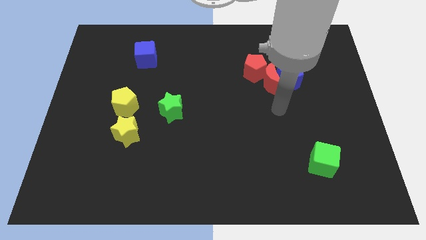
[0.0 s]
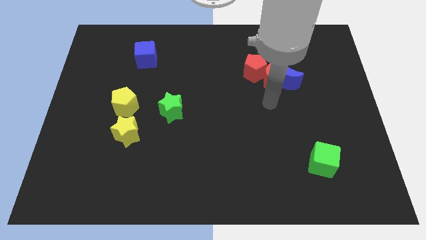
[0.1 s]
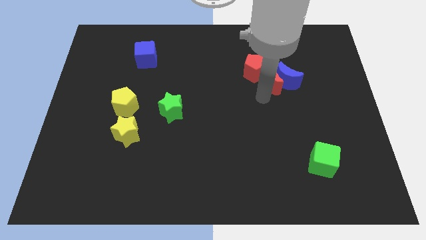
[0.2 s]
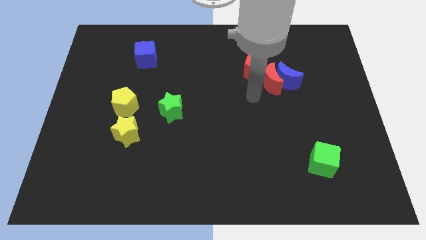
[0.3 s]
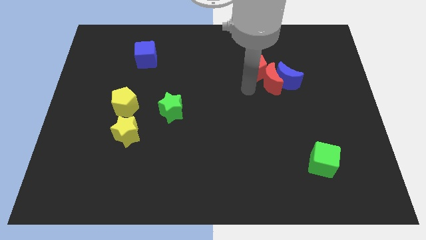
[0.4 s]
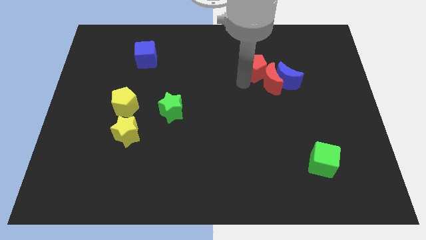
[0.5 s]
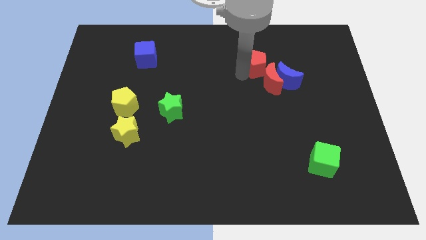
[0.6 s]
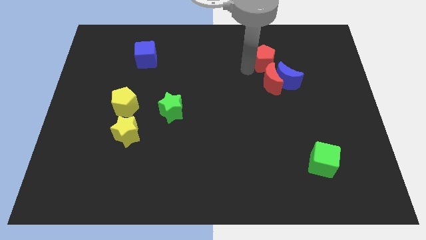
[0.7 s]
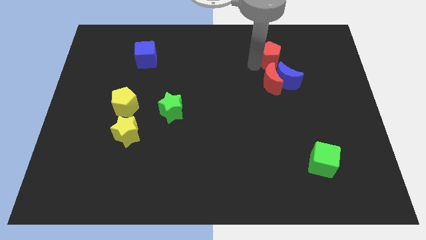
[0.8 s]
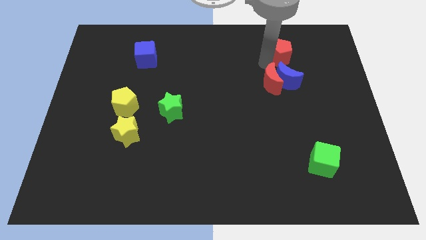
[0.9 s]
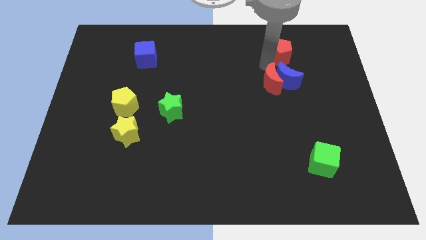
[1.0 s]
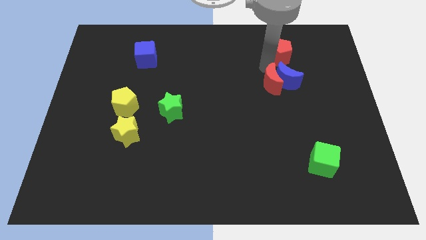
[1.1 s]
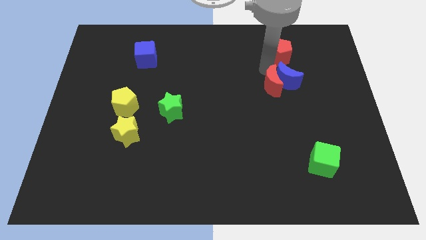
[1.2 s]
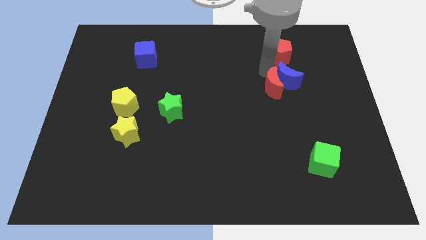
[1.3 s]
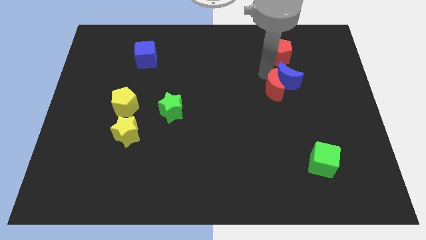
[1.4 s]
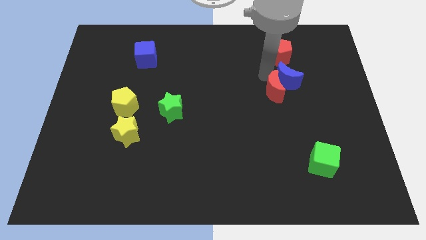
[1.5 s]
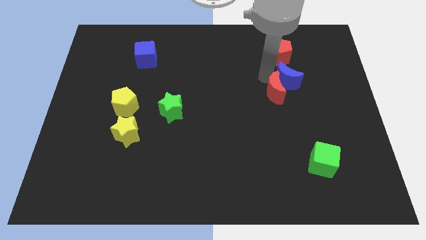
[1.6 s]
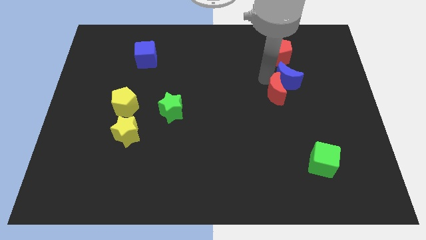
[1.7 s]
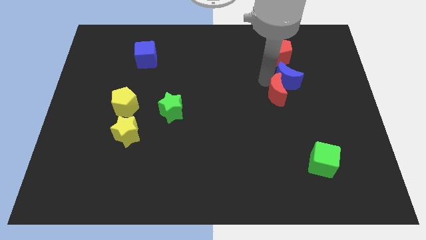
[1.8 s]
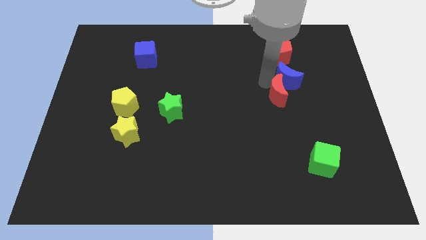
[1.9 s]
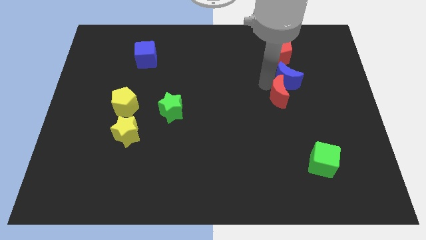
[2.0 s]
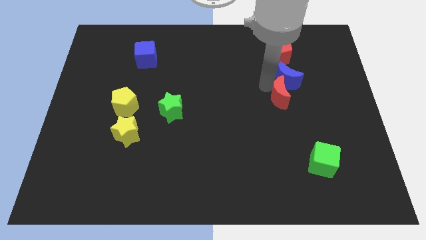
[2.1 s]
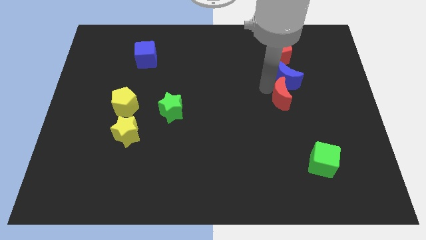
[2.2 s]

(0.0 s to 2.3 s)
pull the red moon apart from the blue moon and red pentagon

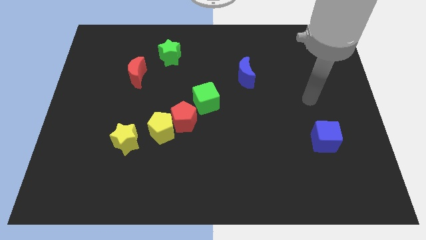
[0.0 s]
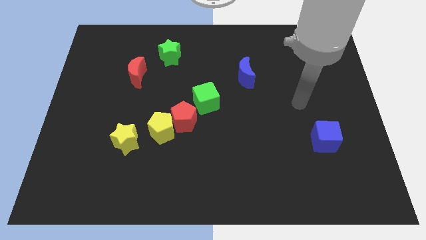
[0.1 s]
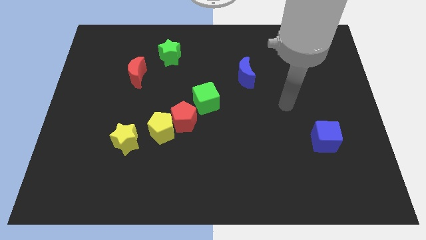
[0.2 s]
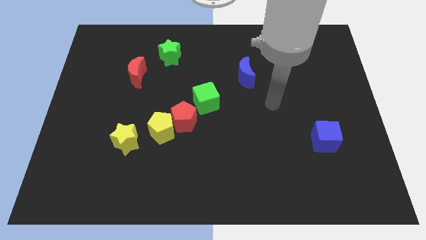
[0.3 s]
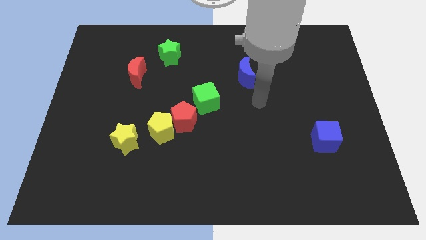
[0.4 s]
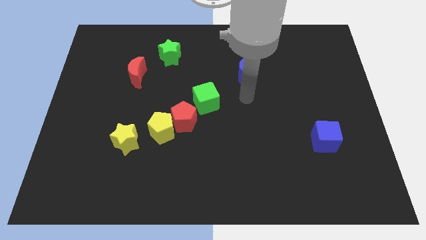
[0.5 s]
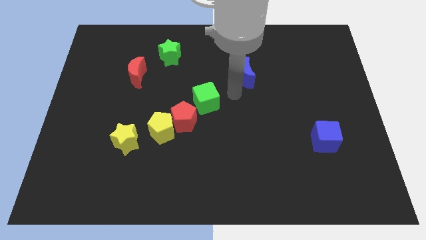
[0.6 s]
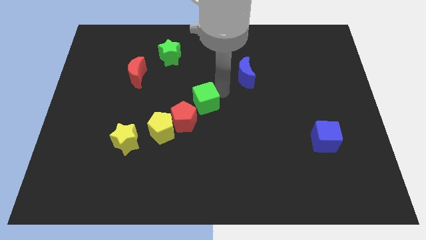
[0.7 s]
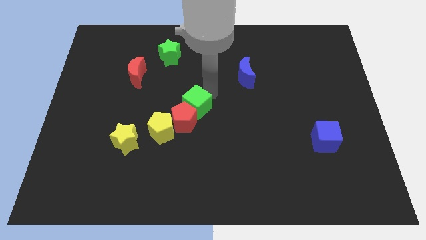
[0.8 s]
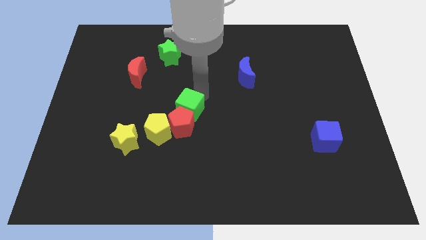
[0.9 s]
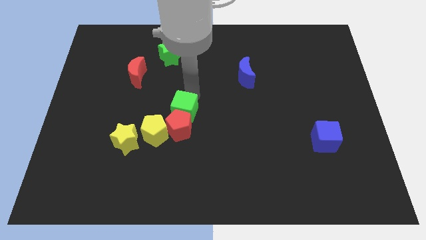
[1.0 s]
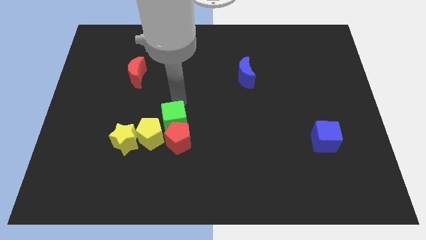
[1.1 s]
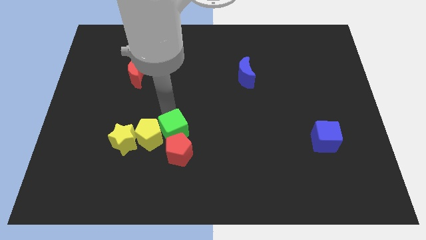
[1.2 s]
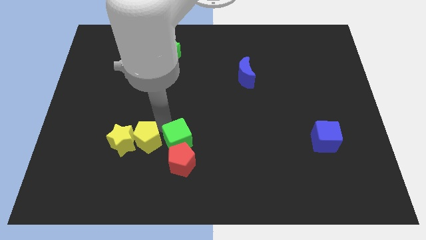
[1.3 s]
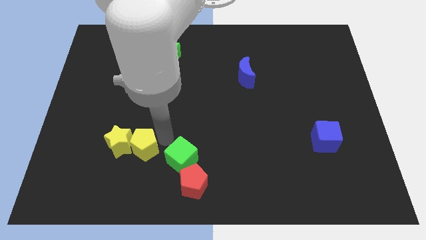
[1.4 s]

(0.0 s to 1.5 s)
pull the red pentagon apart from the yellow pentagon and green cube

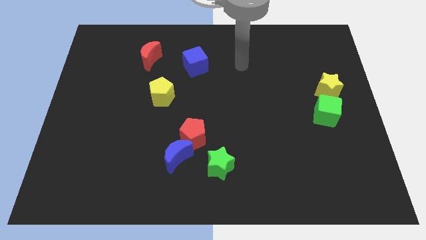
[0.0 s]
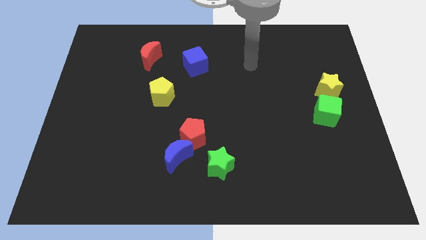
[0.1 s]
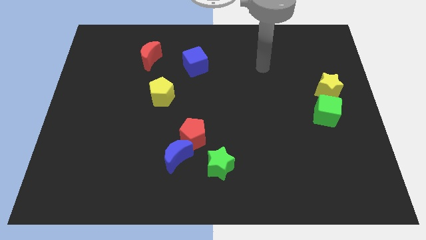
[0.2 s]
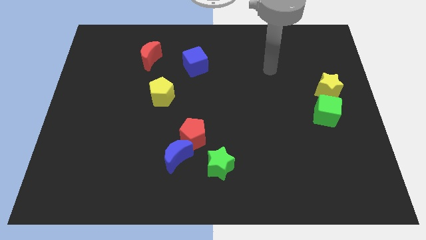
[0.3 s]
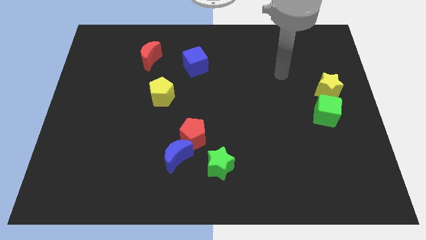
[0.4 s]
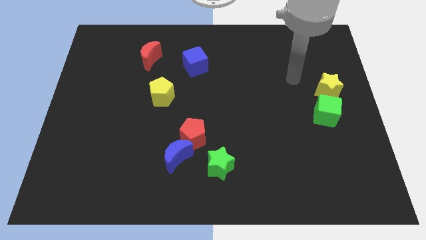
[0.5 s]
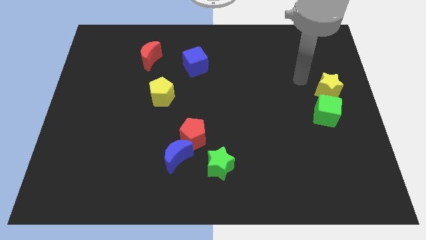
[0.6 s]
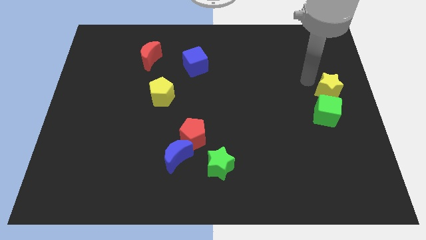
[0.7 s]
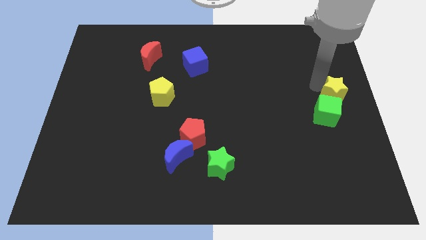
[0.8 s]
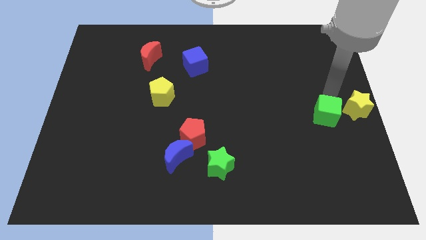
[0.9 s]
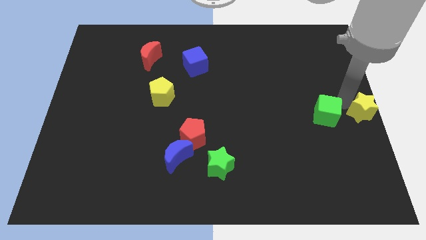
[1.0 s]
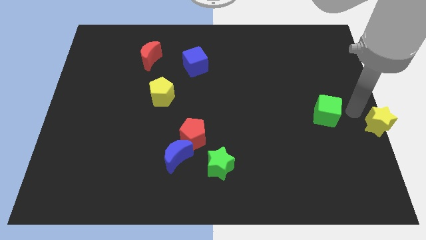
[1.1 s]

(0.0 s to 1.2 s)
move the green cube away from the yellow star

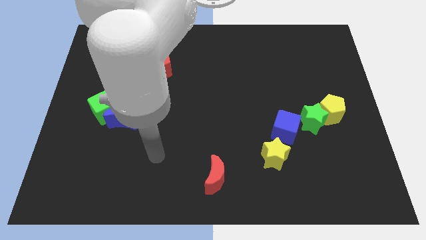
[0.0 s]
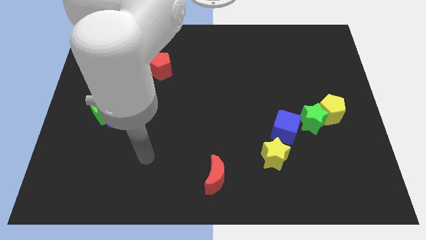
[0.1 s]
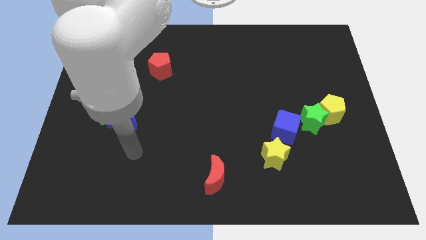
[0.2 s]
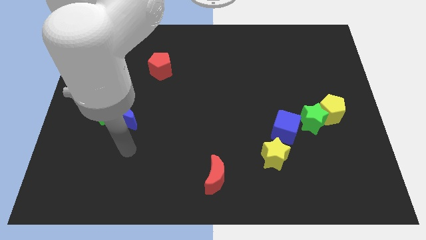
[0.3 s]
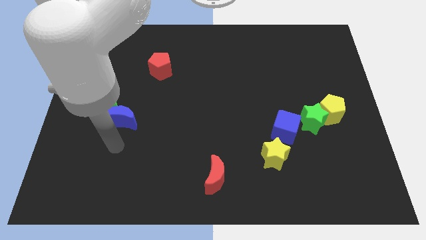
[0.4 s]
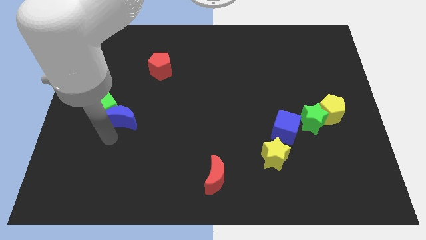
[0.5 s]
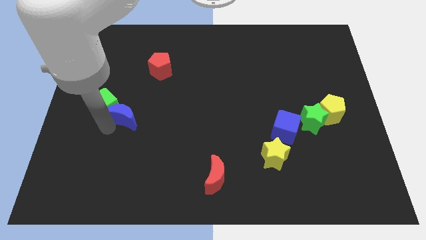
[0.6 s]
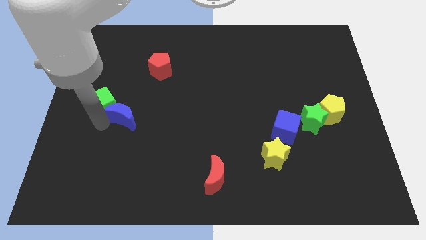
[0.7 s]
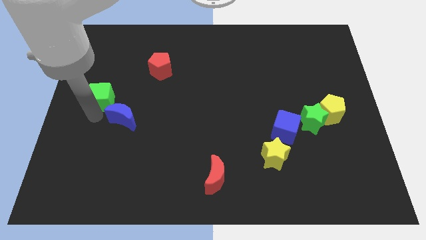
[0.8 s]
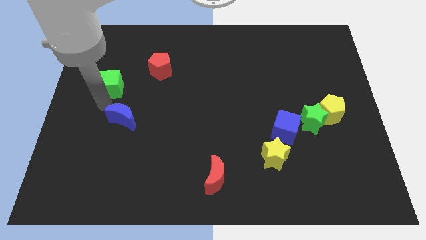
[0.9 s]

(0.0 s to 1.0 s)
pull the blue moon apart from the green cube

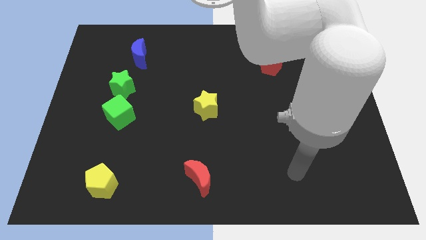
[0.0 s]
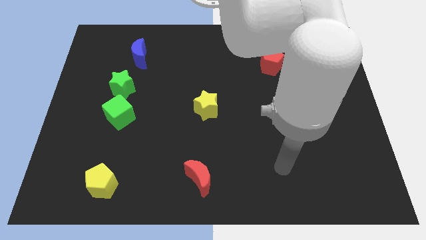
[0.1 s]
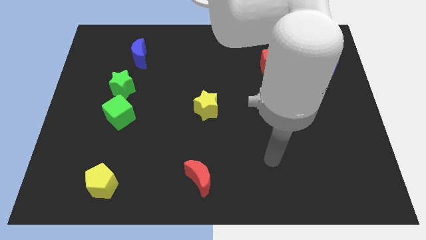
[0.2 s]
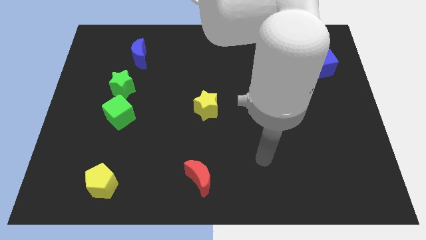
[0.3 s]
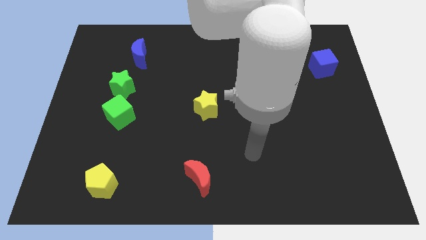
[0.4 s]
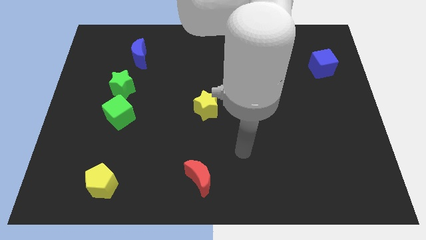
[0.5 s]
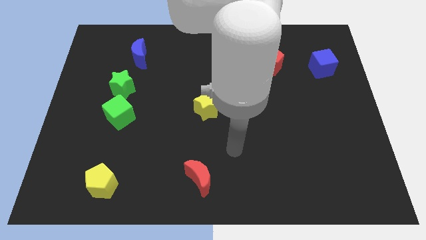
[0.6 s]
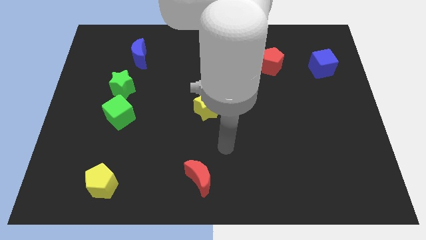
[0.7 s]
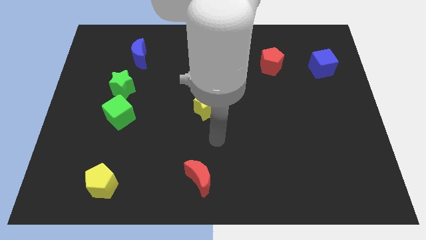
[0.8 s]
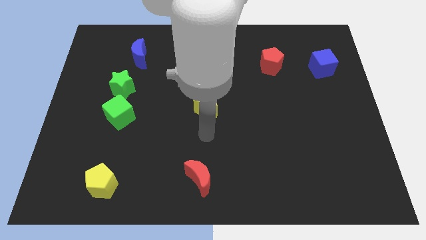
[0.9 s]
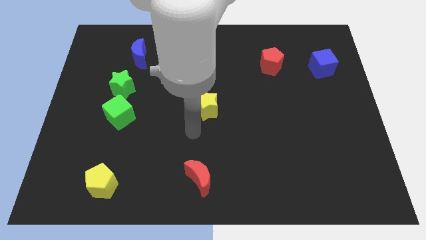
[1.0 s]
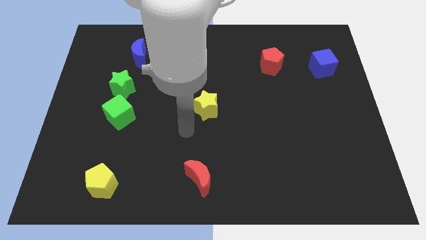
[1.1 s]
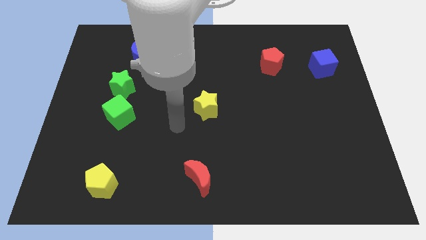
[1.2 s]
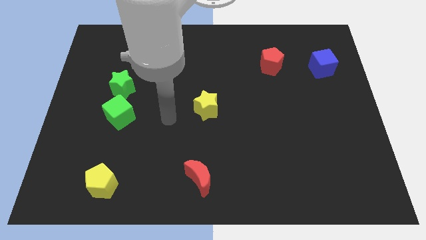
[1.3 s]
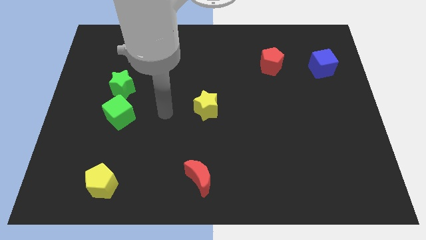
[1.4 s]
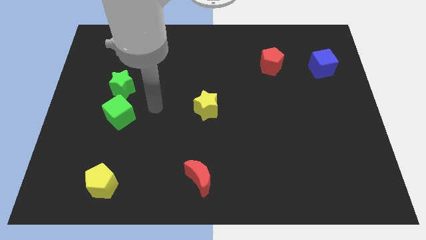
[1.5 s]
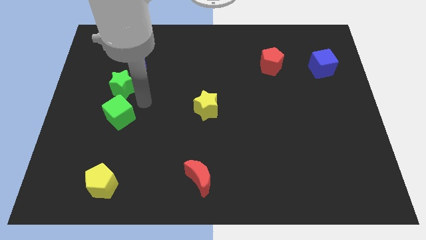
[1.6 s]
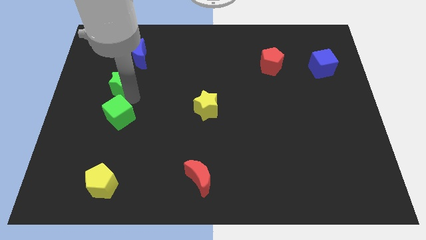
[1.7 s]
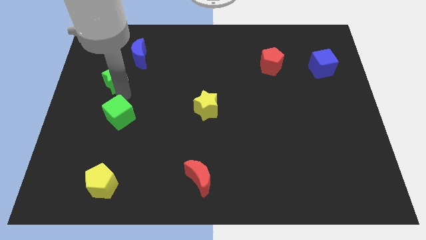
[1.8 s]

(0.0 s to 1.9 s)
pull the green cube apart from the green star

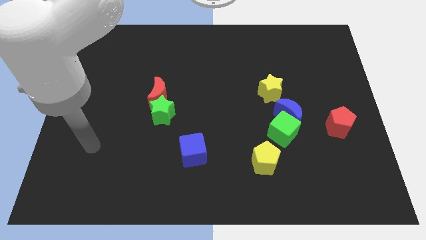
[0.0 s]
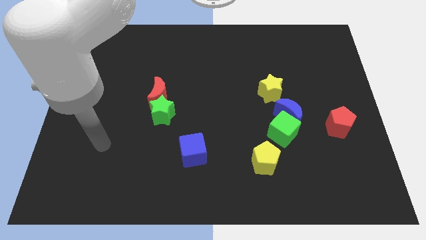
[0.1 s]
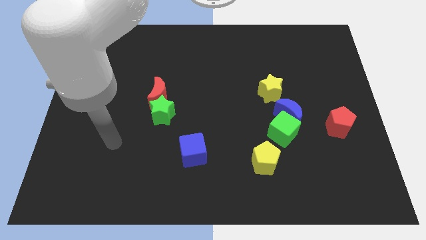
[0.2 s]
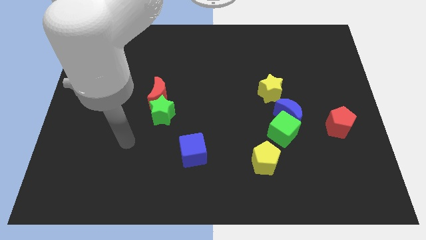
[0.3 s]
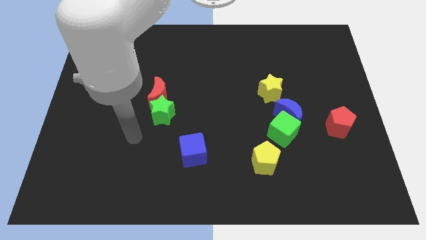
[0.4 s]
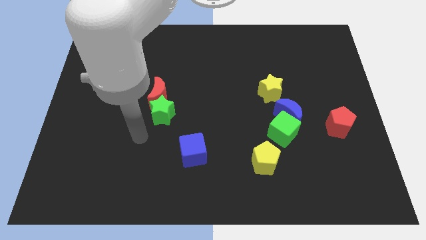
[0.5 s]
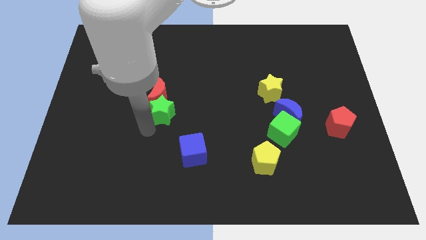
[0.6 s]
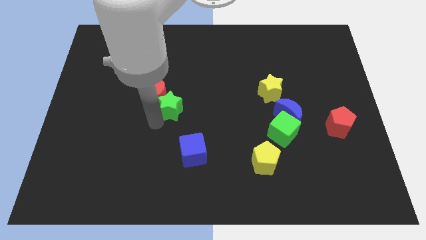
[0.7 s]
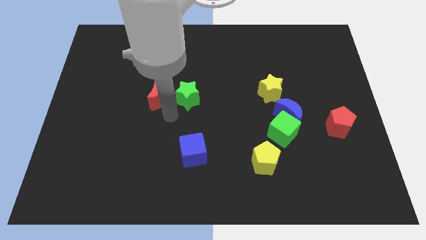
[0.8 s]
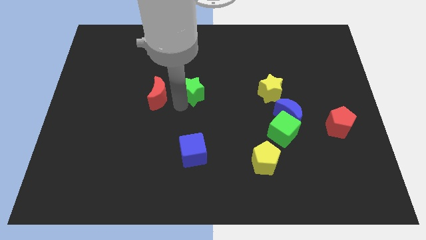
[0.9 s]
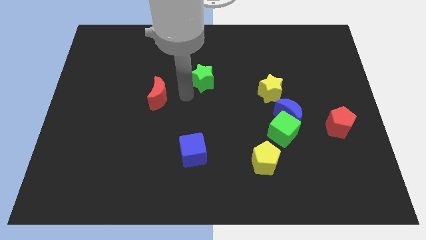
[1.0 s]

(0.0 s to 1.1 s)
pull the red moon apart from the green star

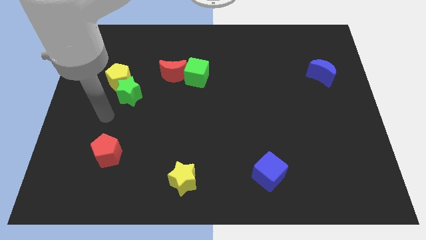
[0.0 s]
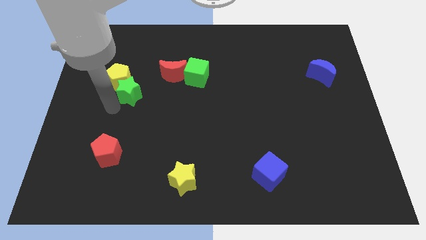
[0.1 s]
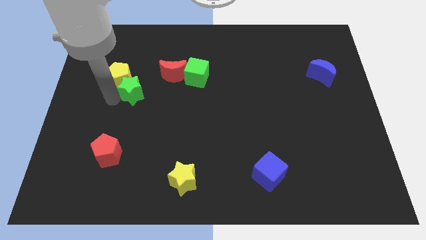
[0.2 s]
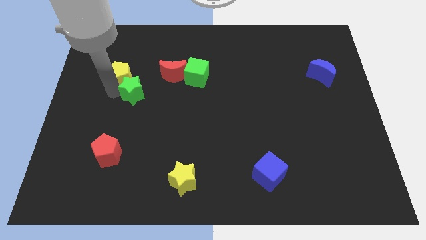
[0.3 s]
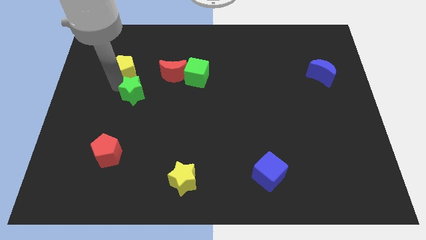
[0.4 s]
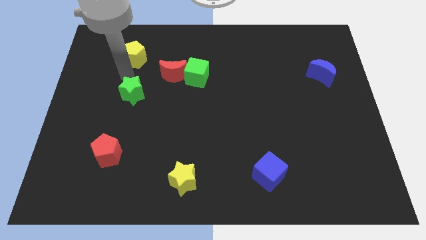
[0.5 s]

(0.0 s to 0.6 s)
pull the green star apart from the yellow pentagon
